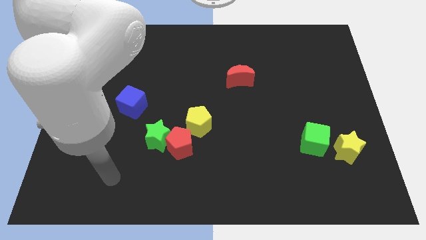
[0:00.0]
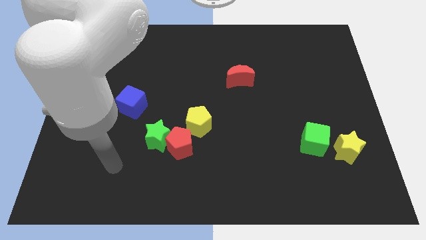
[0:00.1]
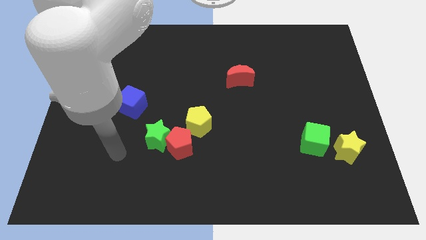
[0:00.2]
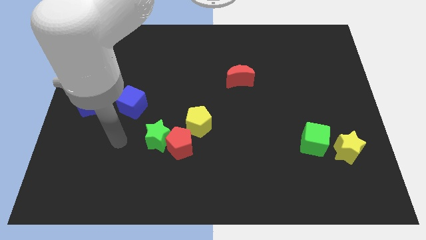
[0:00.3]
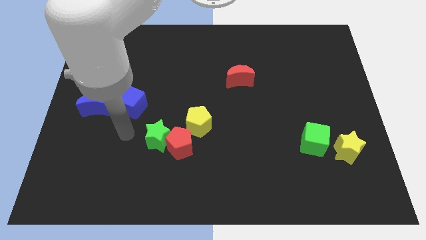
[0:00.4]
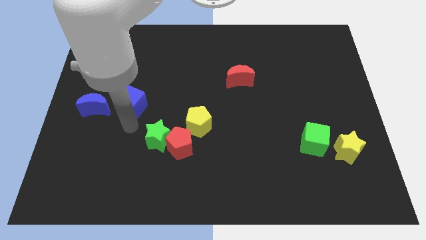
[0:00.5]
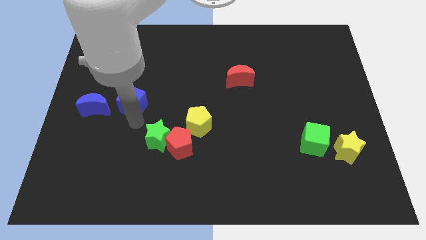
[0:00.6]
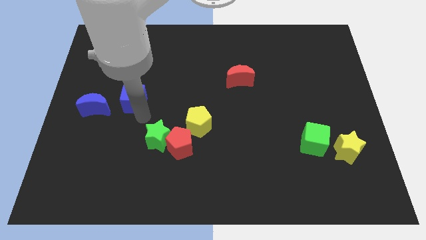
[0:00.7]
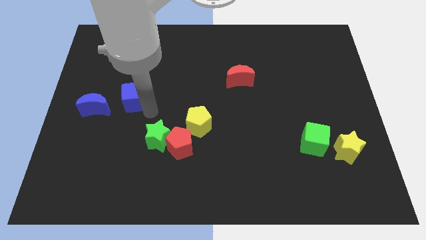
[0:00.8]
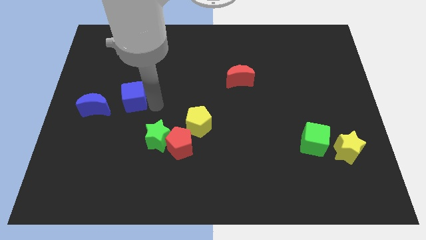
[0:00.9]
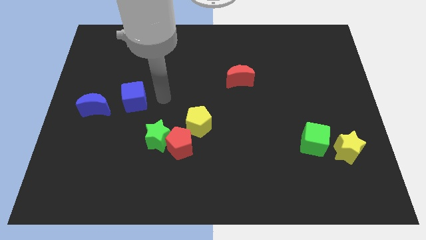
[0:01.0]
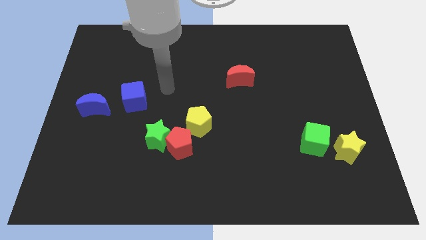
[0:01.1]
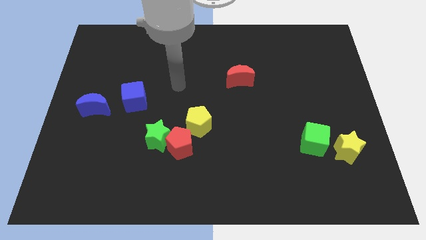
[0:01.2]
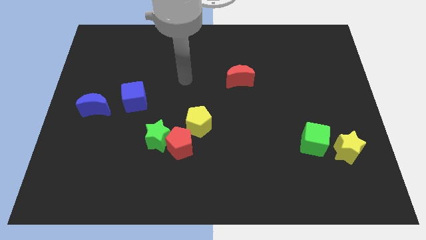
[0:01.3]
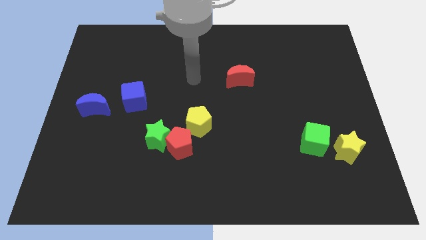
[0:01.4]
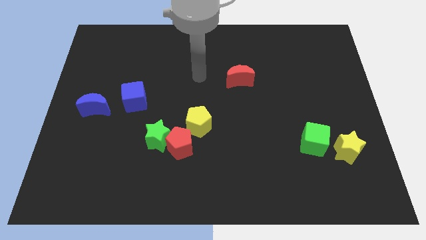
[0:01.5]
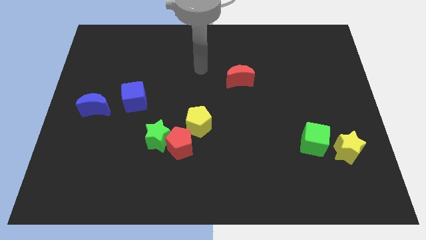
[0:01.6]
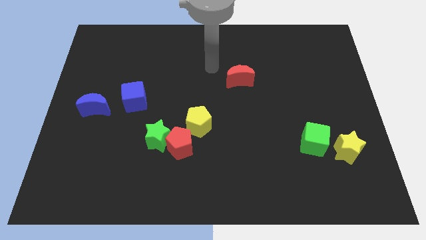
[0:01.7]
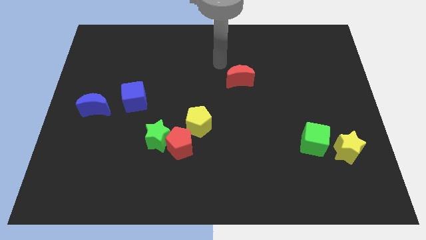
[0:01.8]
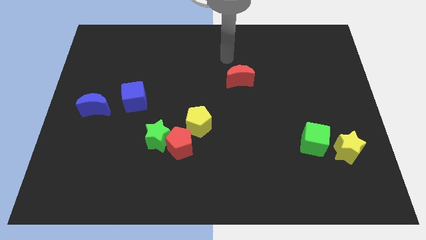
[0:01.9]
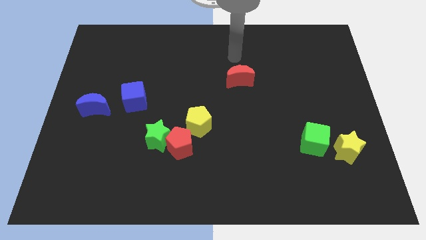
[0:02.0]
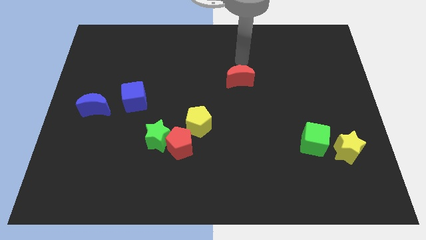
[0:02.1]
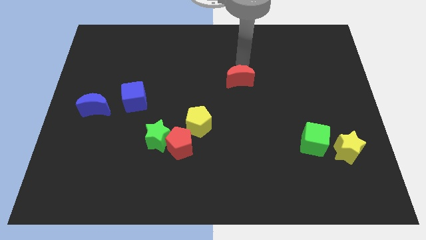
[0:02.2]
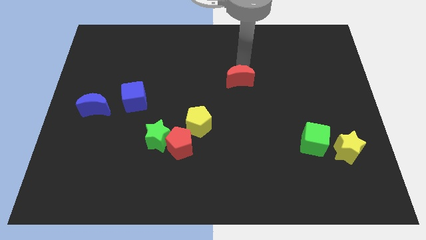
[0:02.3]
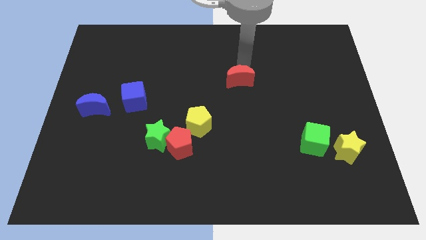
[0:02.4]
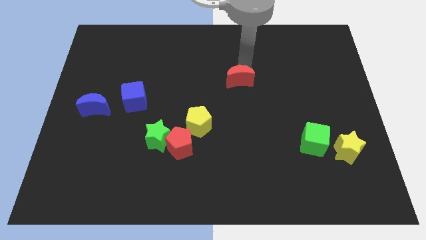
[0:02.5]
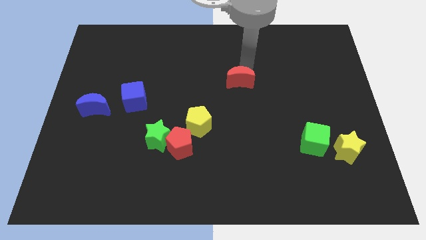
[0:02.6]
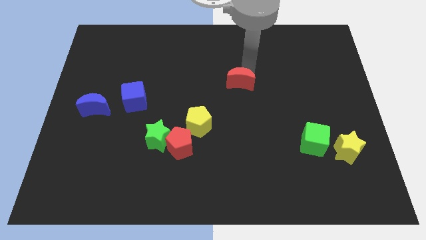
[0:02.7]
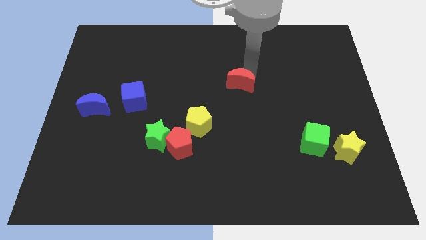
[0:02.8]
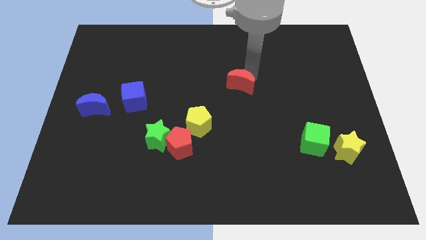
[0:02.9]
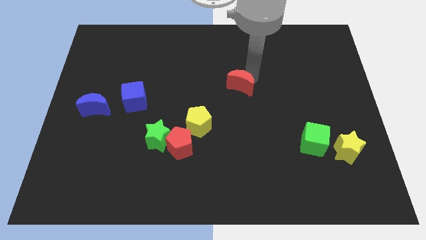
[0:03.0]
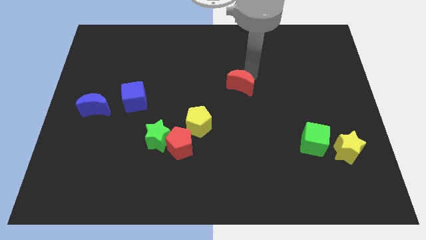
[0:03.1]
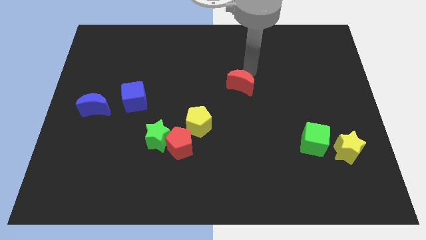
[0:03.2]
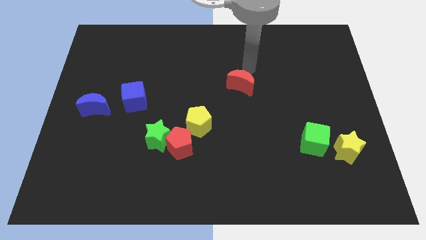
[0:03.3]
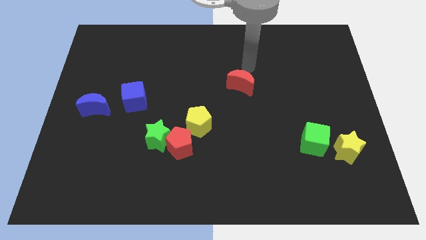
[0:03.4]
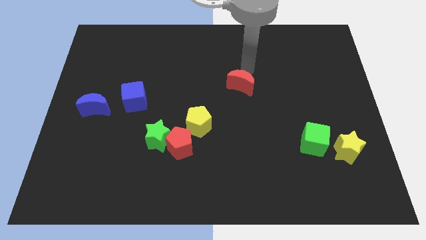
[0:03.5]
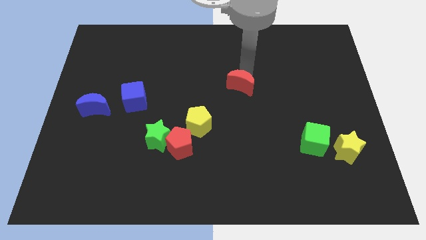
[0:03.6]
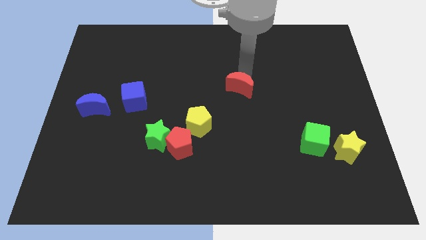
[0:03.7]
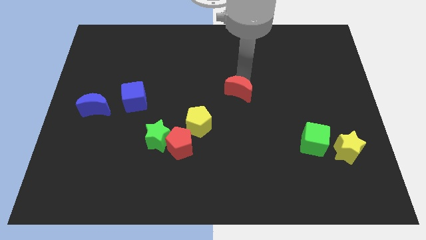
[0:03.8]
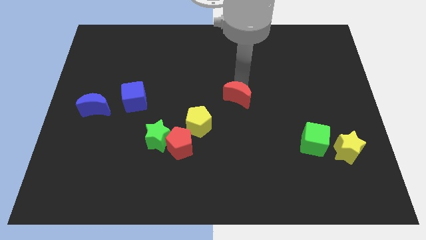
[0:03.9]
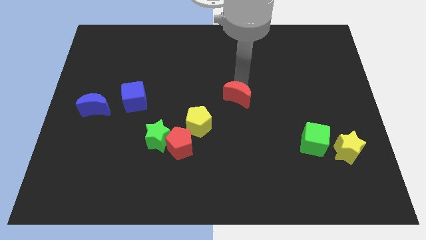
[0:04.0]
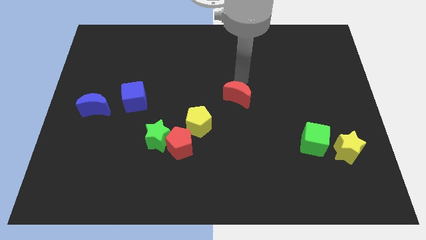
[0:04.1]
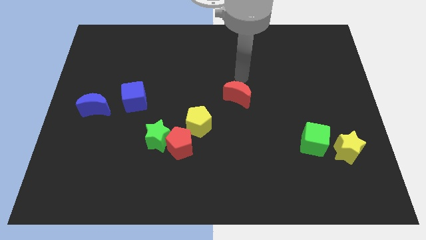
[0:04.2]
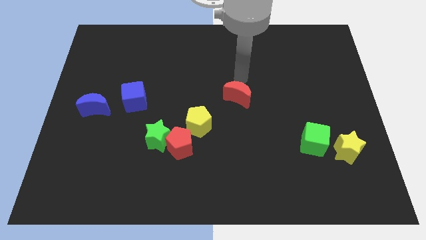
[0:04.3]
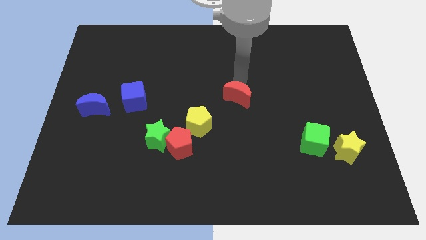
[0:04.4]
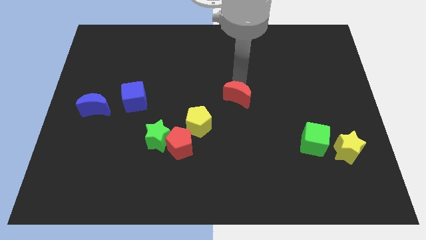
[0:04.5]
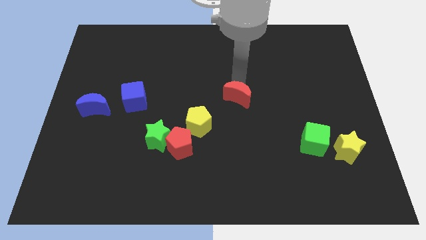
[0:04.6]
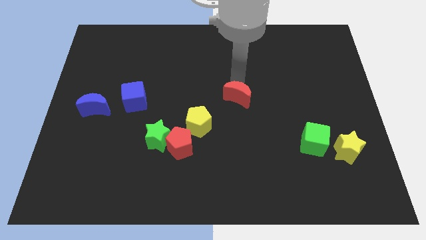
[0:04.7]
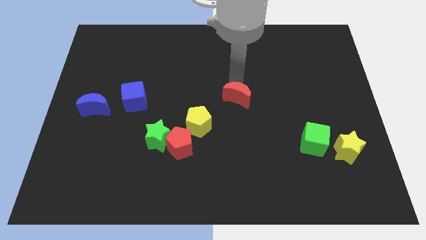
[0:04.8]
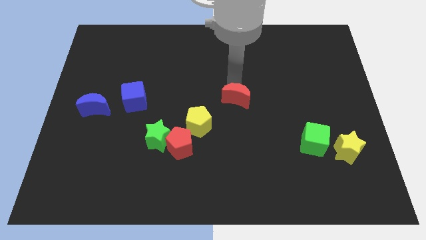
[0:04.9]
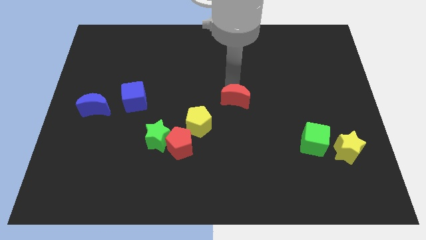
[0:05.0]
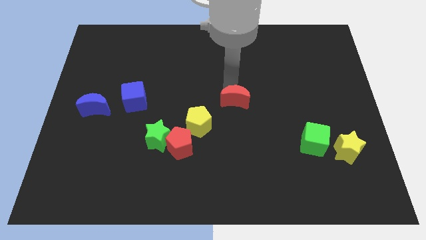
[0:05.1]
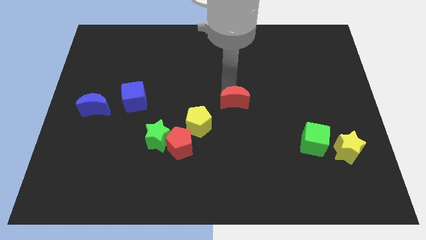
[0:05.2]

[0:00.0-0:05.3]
slightly slide the red moon downwards

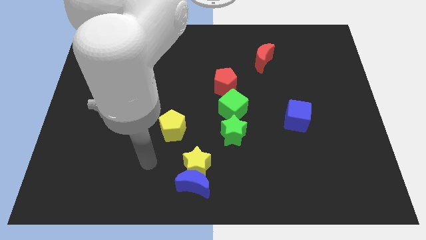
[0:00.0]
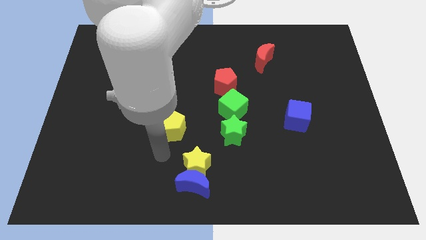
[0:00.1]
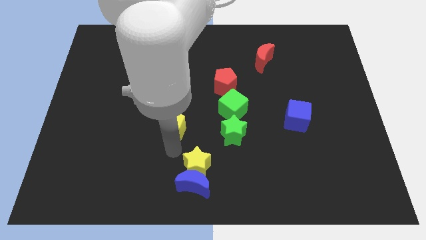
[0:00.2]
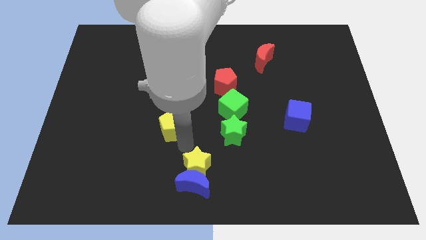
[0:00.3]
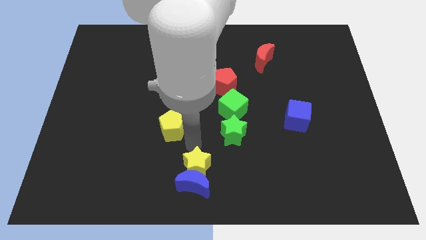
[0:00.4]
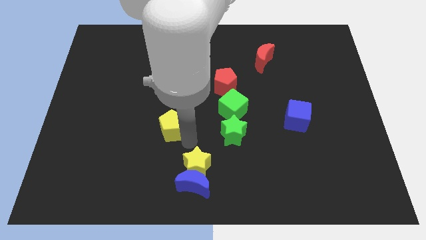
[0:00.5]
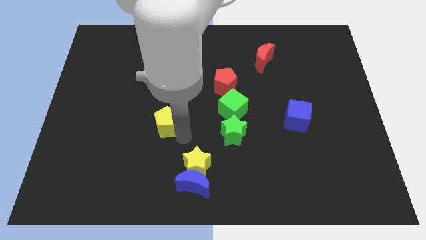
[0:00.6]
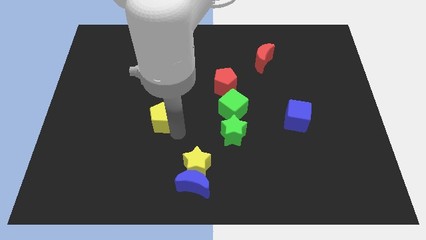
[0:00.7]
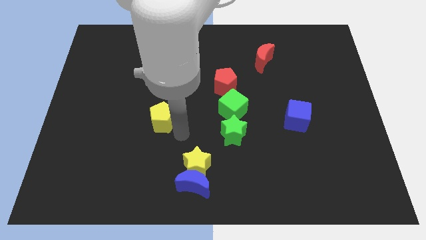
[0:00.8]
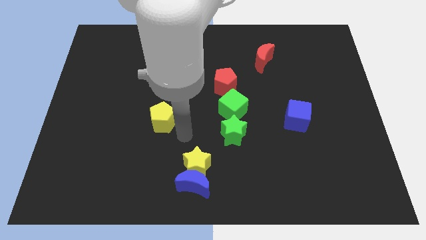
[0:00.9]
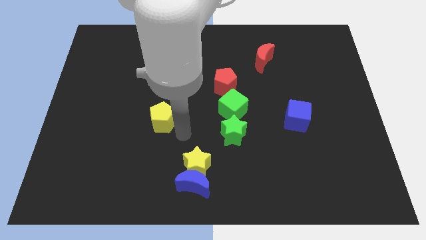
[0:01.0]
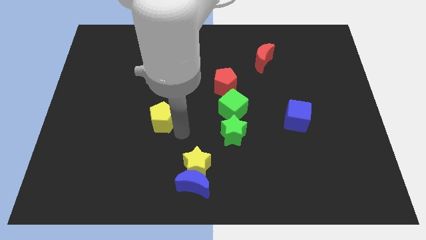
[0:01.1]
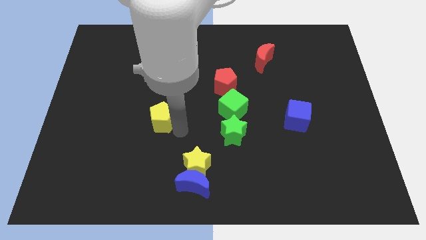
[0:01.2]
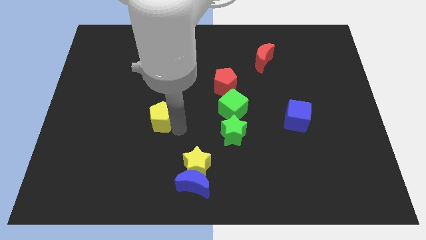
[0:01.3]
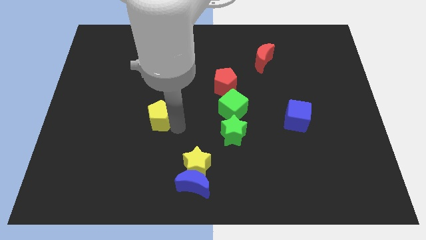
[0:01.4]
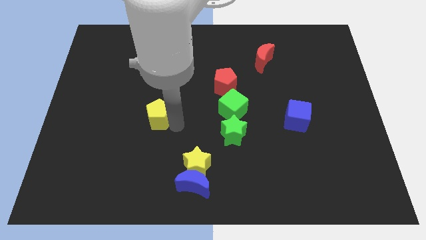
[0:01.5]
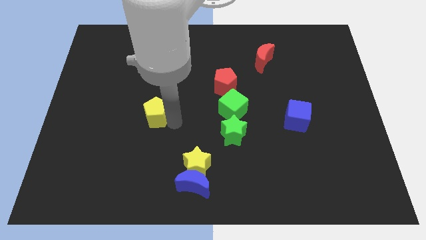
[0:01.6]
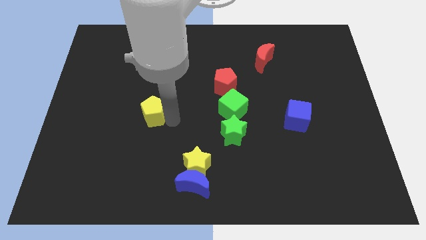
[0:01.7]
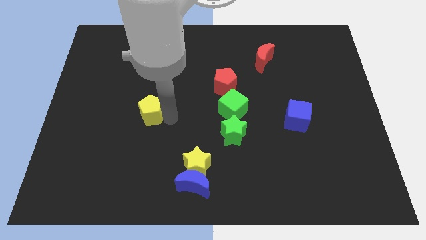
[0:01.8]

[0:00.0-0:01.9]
push the yellow pentagon upwards and left diagonally slightly

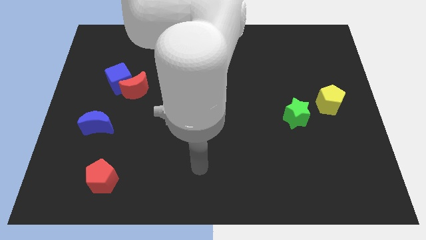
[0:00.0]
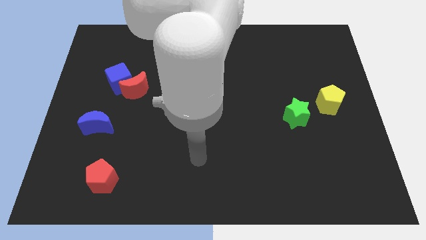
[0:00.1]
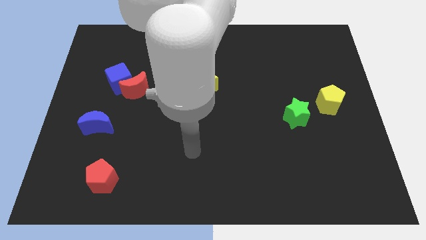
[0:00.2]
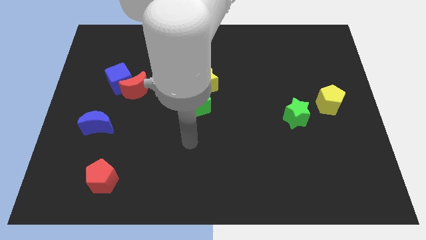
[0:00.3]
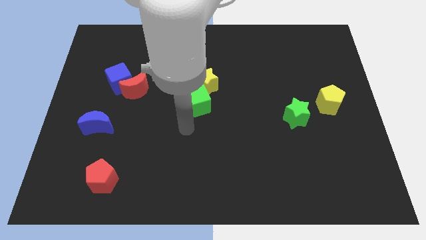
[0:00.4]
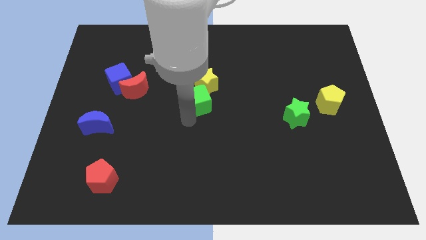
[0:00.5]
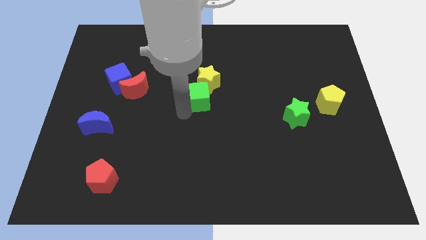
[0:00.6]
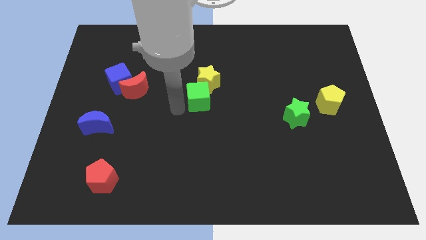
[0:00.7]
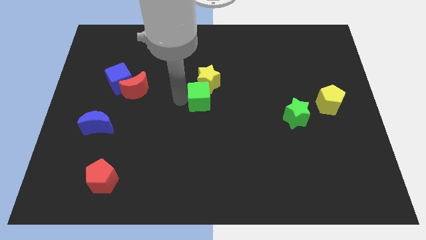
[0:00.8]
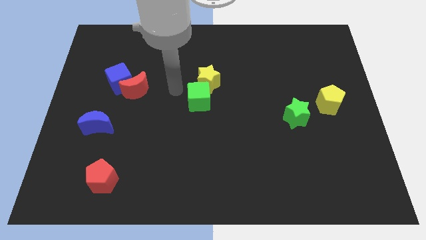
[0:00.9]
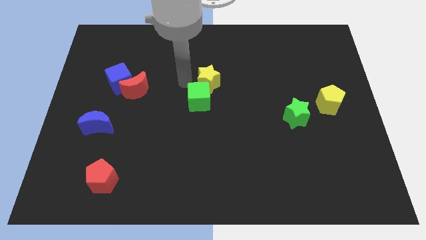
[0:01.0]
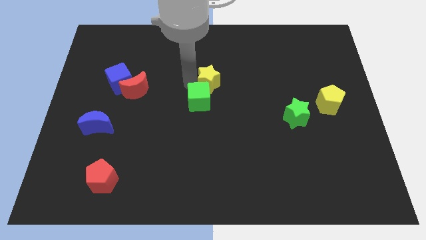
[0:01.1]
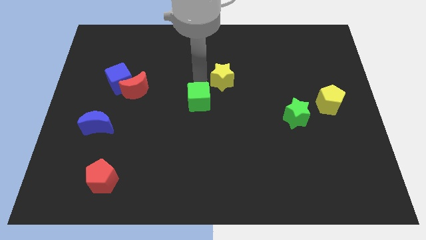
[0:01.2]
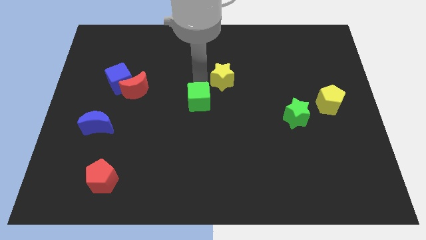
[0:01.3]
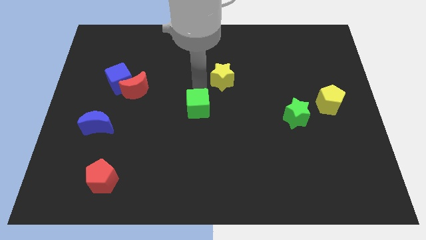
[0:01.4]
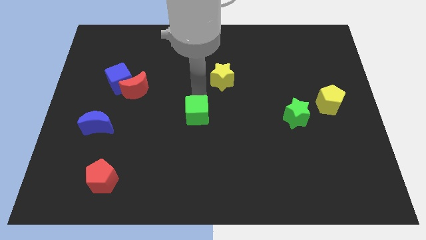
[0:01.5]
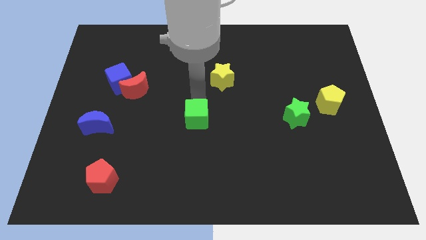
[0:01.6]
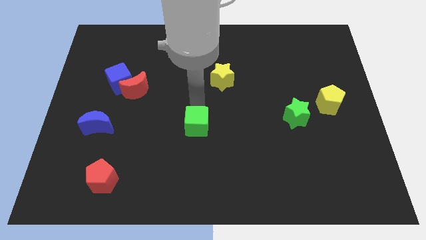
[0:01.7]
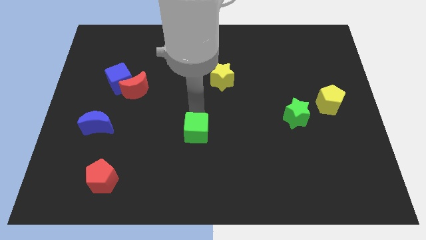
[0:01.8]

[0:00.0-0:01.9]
move the green cube downwards somewhat
